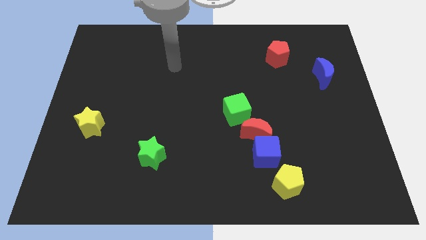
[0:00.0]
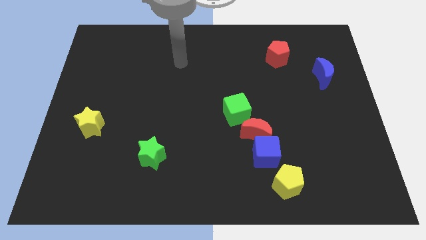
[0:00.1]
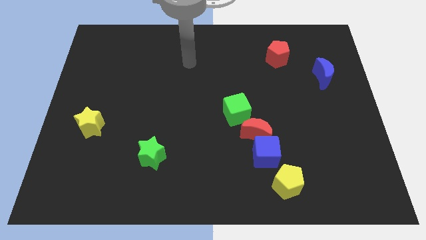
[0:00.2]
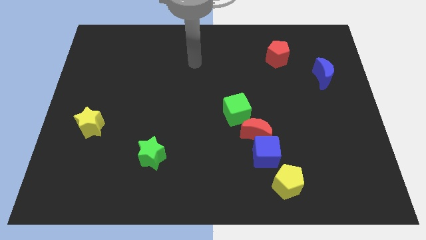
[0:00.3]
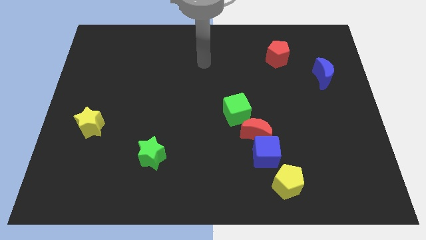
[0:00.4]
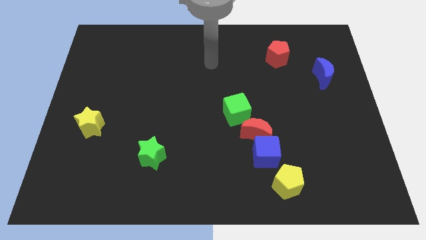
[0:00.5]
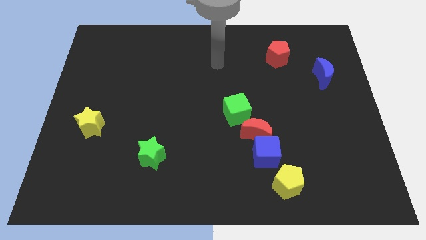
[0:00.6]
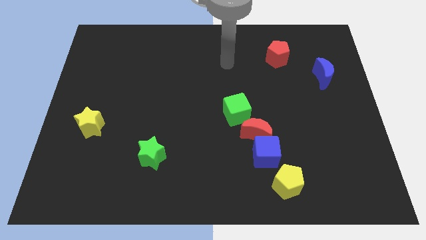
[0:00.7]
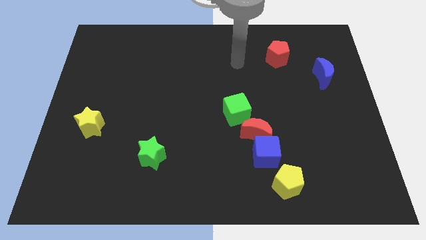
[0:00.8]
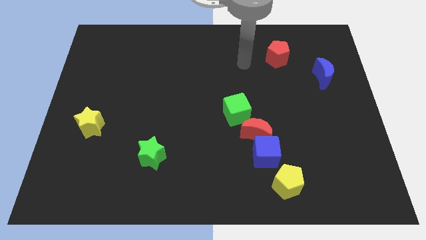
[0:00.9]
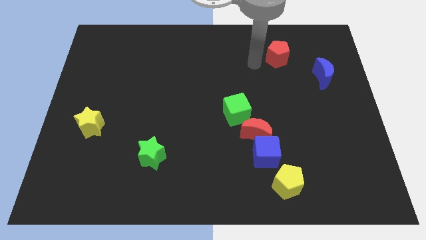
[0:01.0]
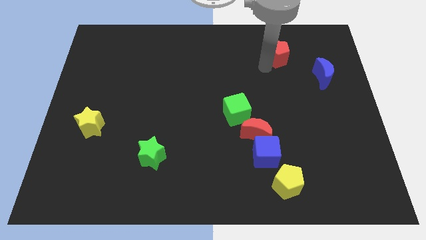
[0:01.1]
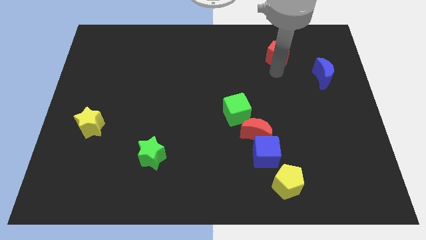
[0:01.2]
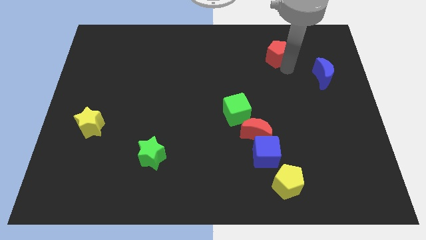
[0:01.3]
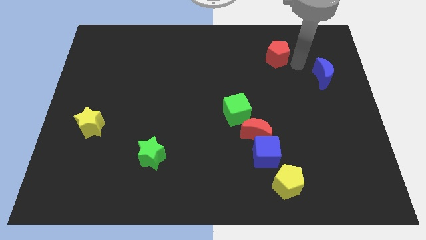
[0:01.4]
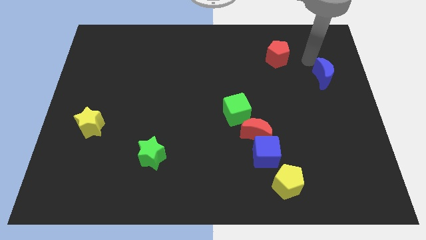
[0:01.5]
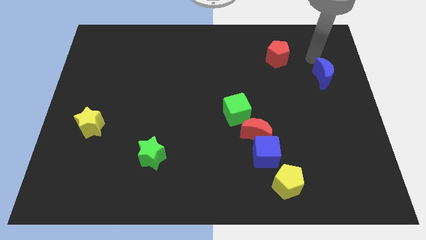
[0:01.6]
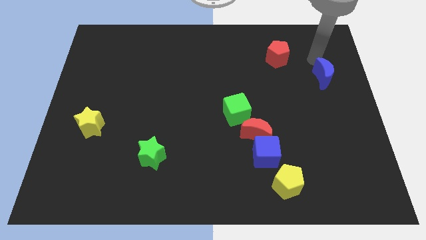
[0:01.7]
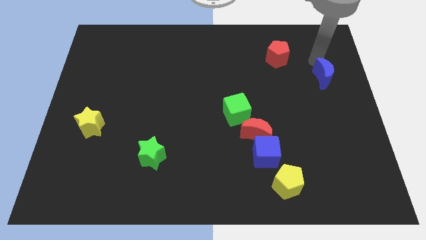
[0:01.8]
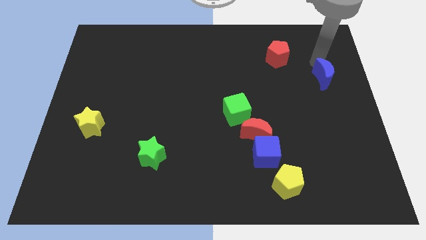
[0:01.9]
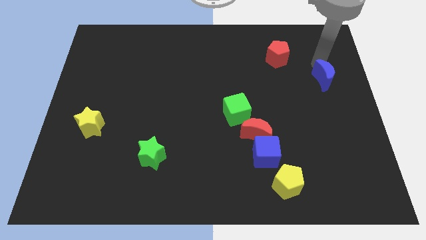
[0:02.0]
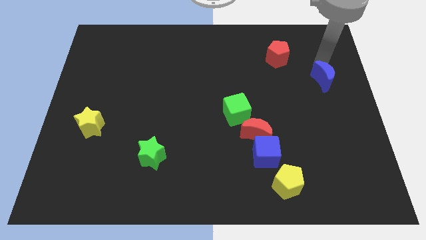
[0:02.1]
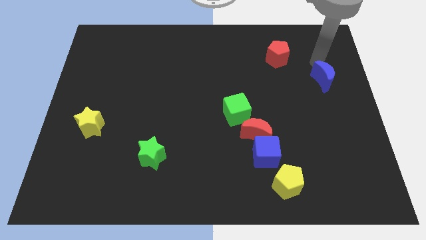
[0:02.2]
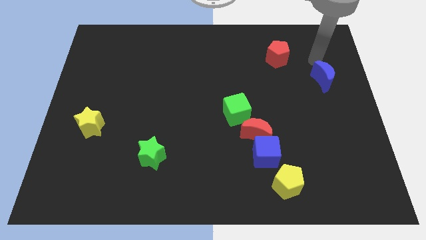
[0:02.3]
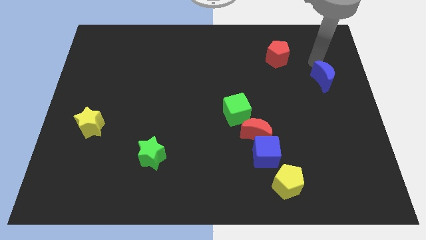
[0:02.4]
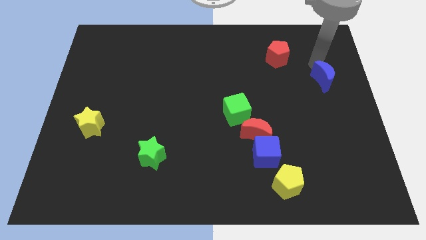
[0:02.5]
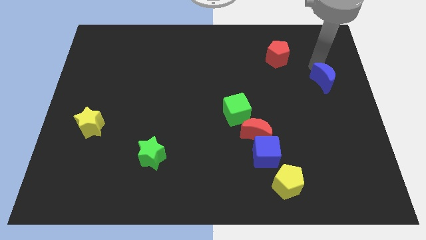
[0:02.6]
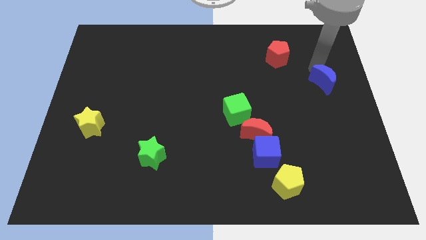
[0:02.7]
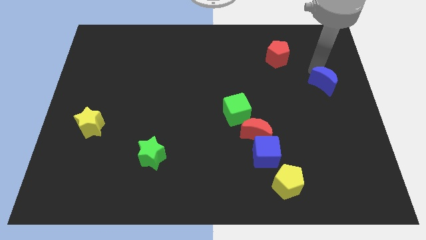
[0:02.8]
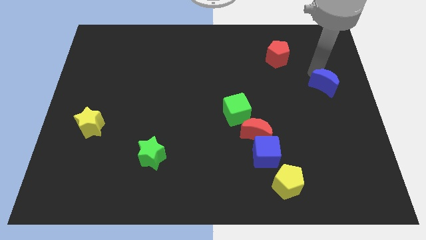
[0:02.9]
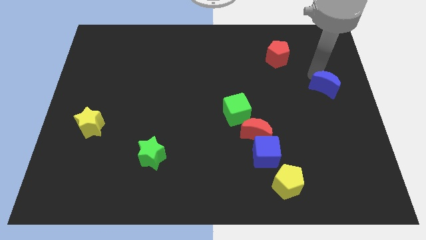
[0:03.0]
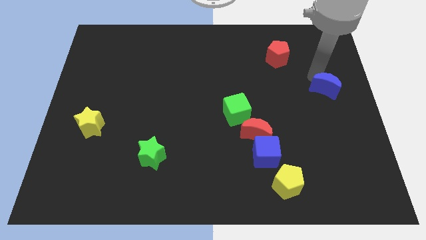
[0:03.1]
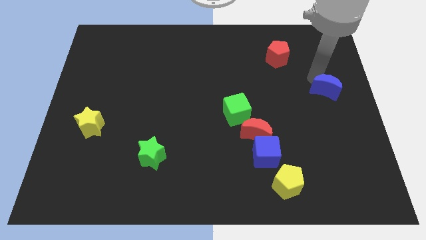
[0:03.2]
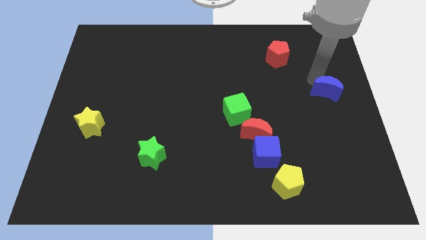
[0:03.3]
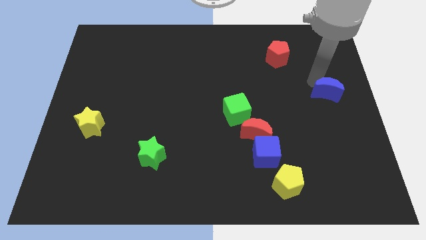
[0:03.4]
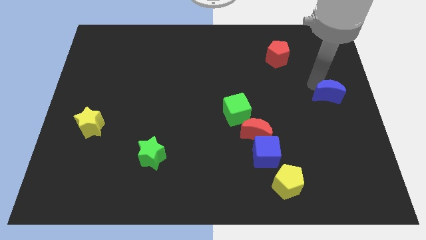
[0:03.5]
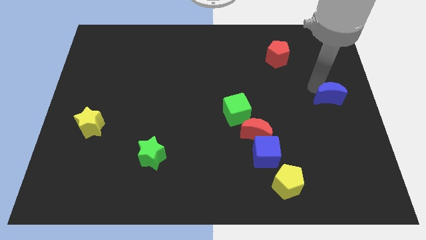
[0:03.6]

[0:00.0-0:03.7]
move the blue moon downwards slightly

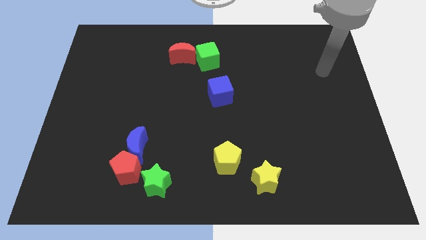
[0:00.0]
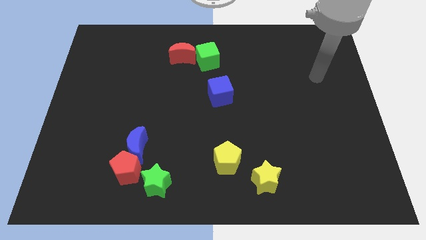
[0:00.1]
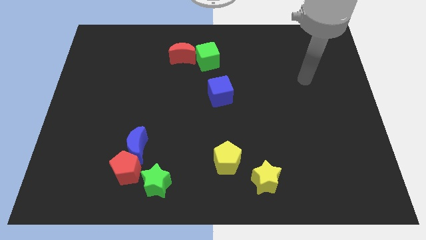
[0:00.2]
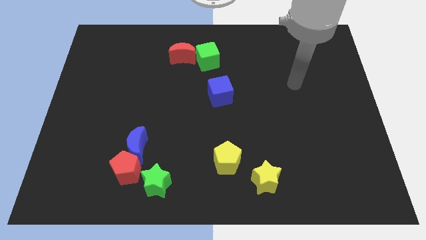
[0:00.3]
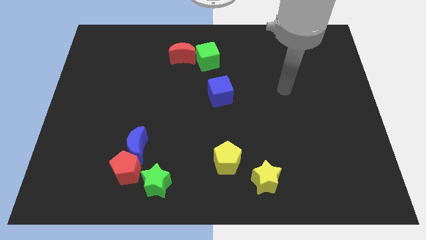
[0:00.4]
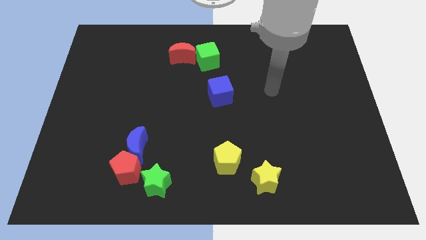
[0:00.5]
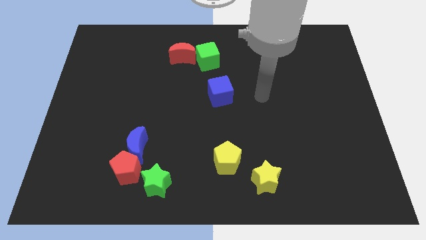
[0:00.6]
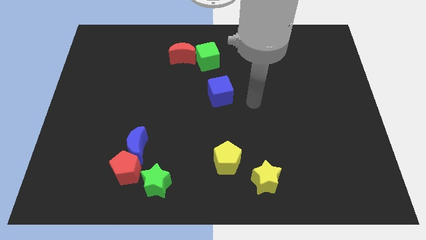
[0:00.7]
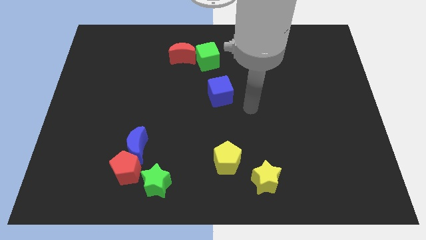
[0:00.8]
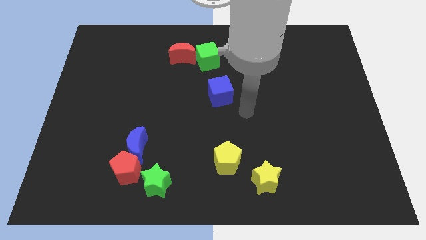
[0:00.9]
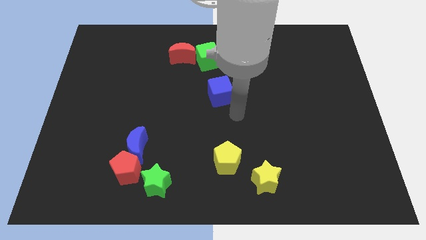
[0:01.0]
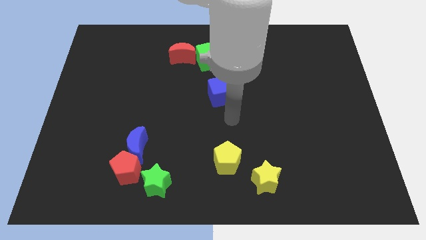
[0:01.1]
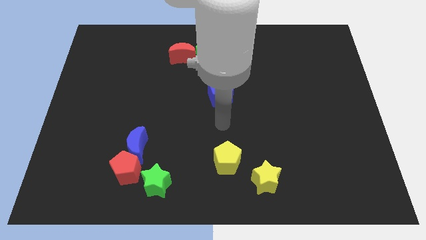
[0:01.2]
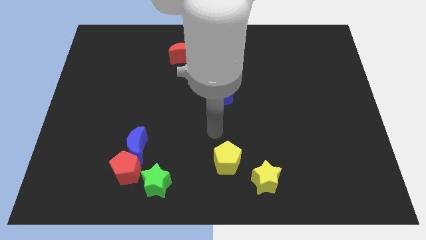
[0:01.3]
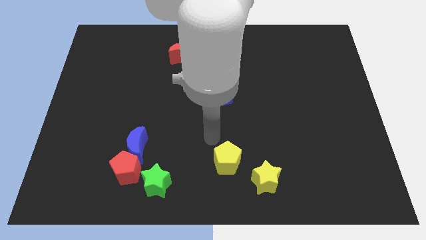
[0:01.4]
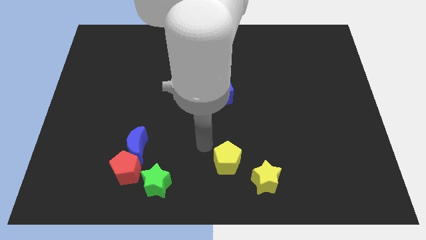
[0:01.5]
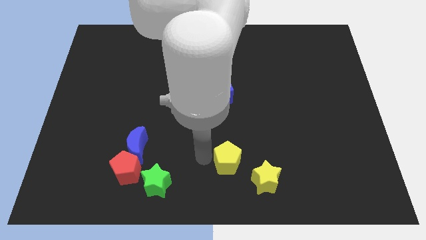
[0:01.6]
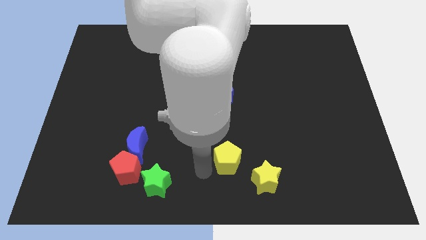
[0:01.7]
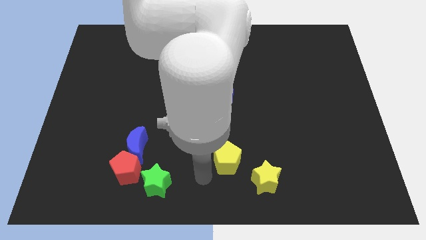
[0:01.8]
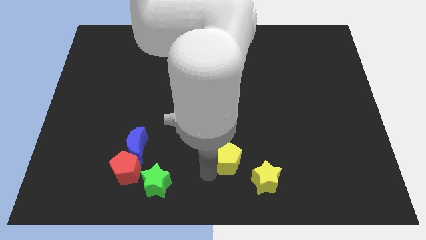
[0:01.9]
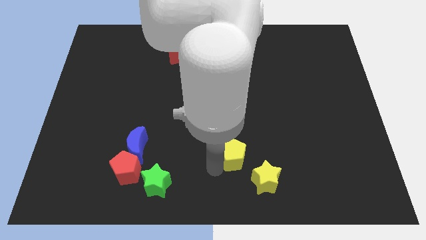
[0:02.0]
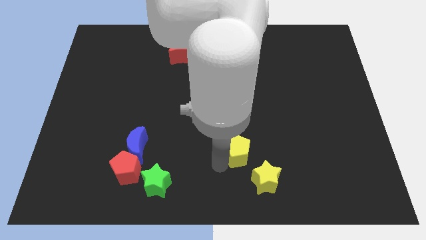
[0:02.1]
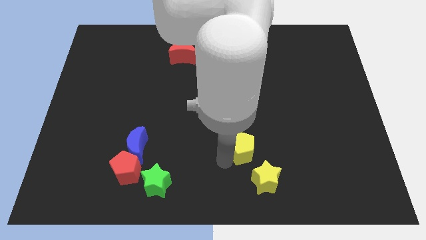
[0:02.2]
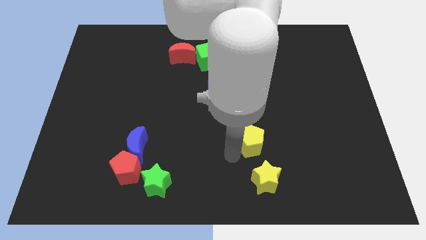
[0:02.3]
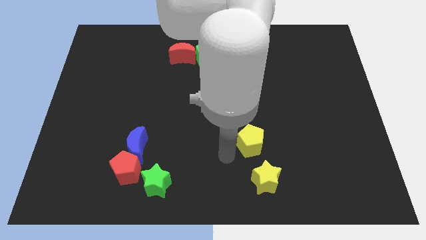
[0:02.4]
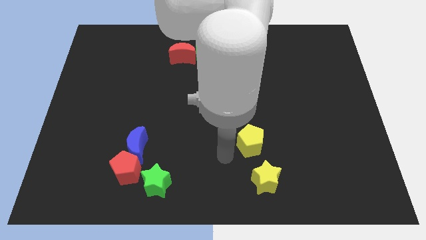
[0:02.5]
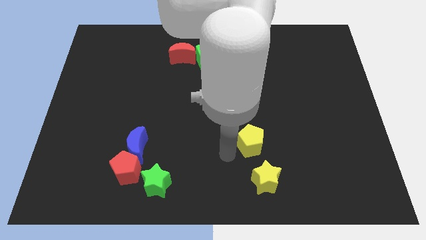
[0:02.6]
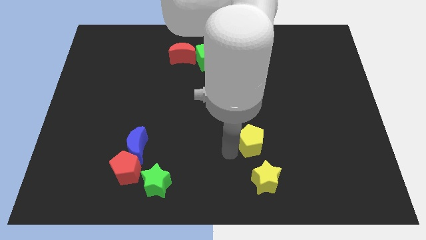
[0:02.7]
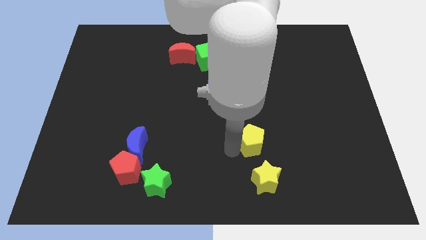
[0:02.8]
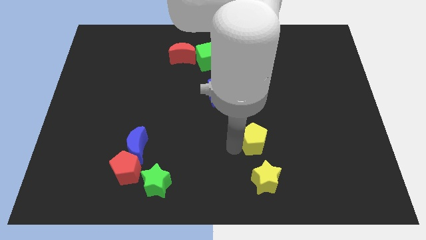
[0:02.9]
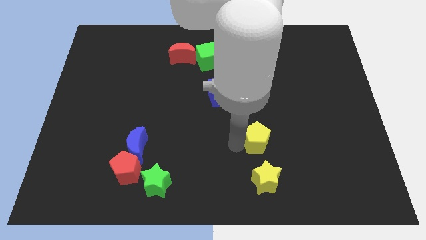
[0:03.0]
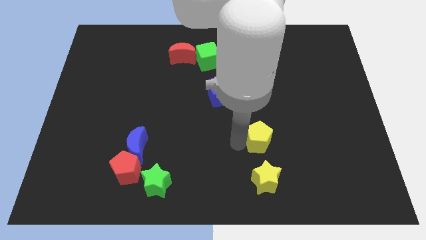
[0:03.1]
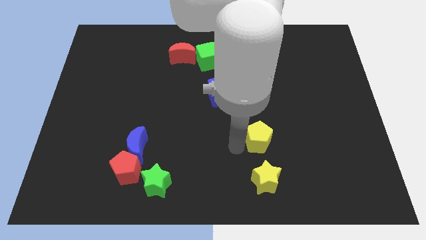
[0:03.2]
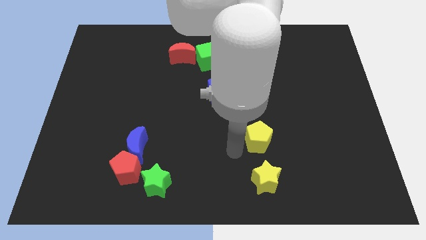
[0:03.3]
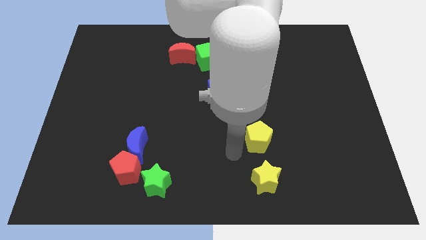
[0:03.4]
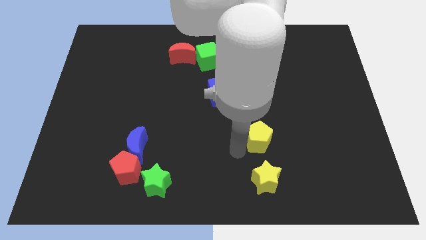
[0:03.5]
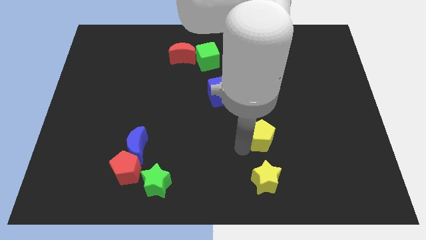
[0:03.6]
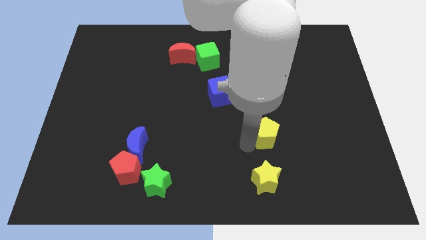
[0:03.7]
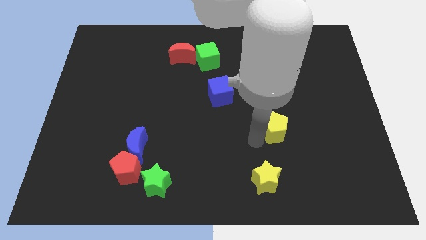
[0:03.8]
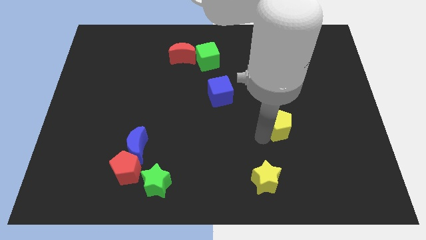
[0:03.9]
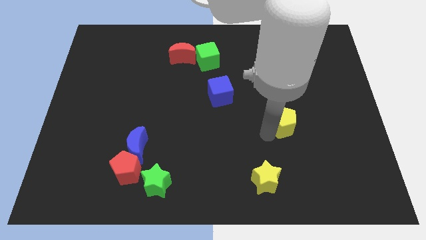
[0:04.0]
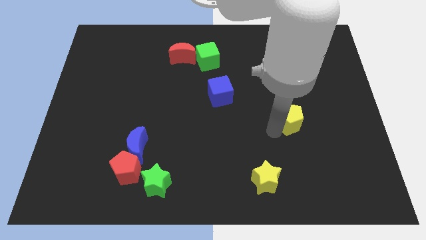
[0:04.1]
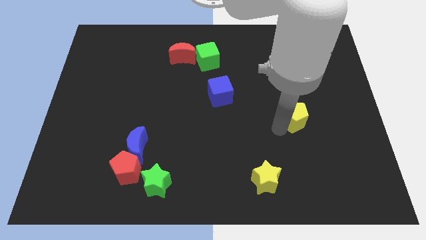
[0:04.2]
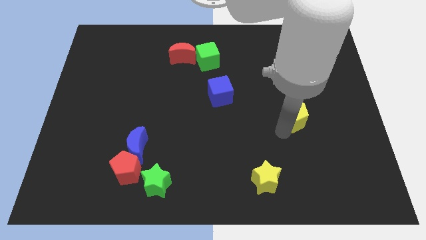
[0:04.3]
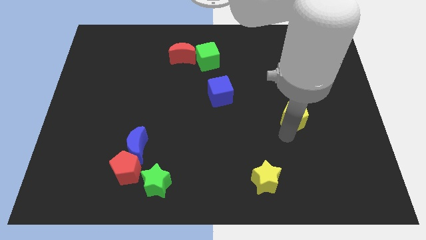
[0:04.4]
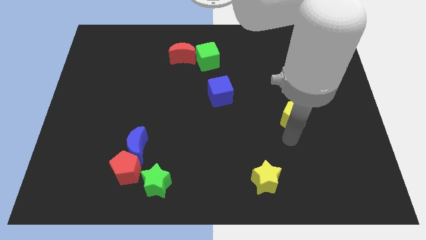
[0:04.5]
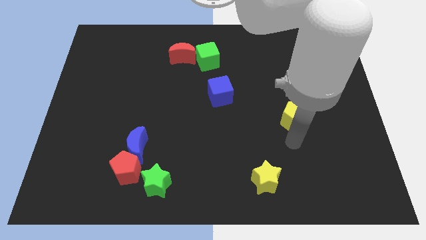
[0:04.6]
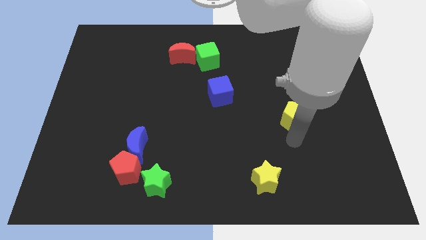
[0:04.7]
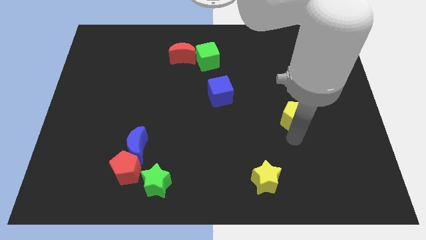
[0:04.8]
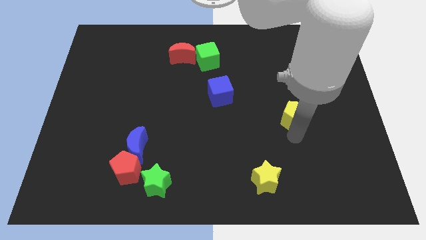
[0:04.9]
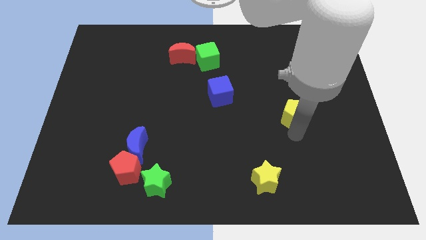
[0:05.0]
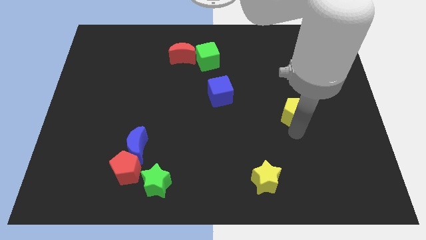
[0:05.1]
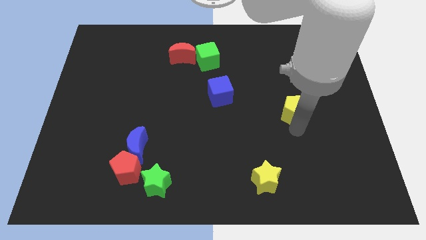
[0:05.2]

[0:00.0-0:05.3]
push the yellow pentagon up and then right
